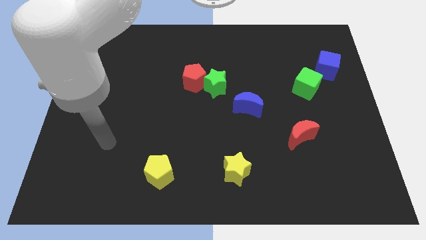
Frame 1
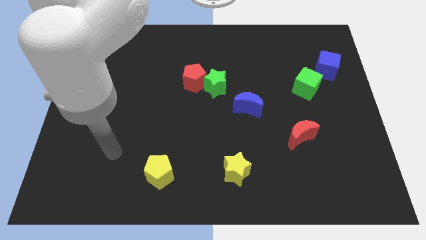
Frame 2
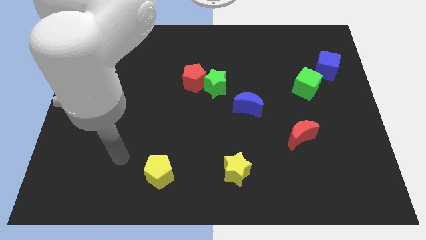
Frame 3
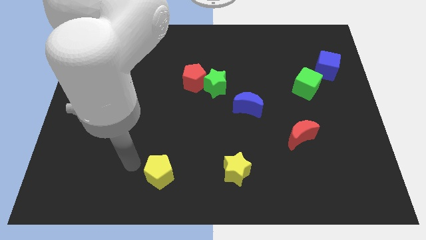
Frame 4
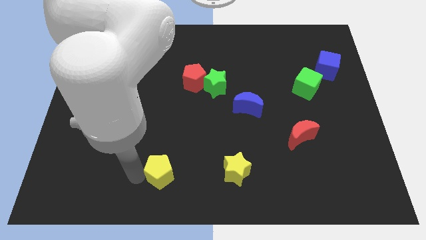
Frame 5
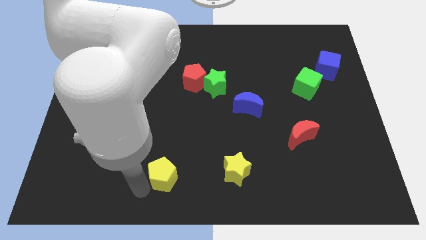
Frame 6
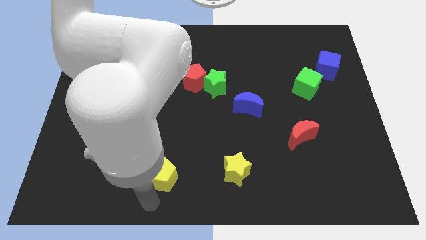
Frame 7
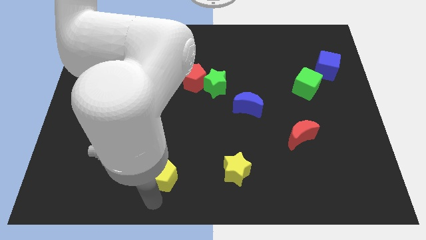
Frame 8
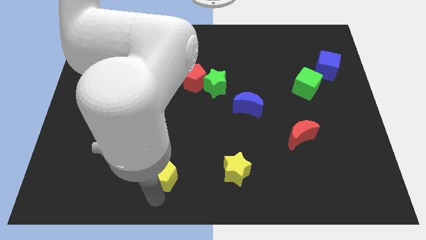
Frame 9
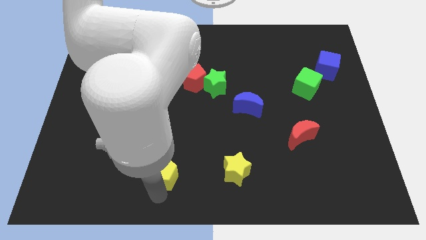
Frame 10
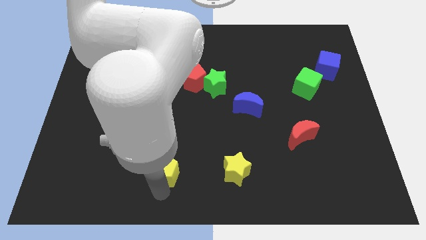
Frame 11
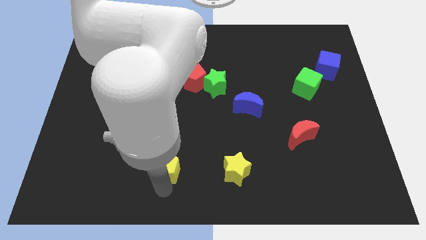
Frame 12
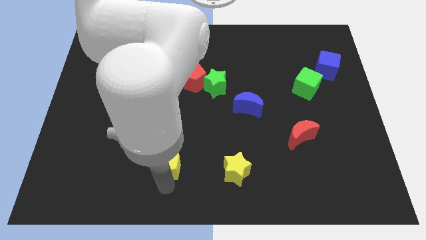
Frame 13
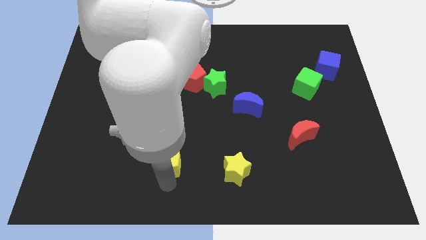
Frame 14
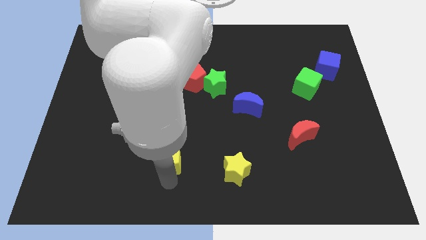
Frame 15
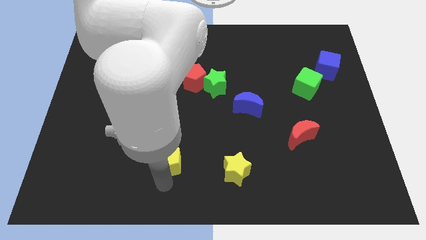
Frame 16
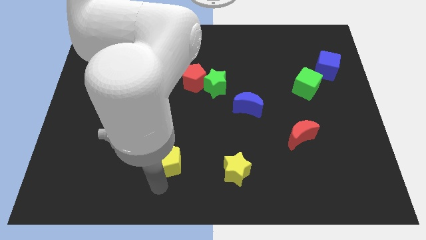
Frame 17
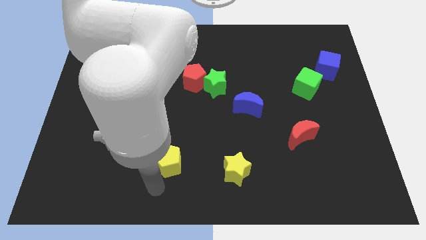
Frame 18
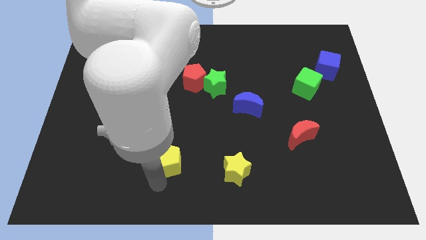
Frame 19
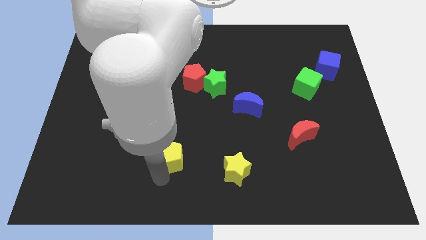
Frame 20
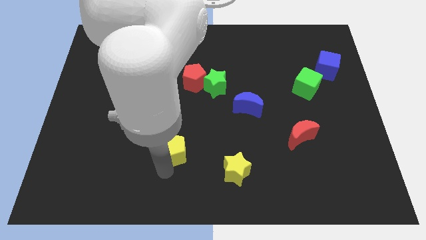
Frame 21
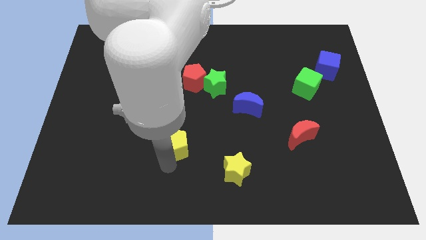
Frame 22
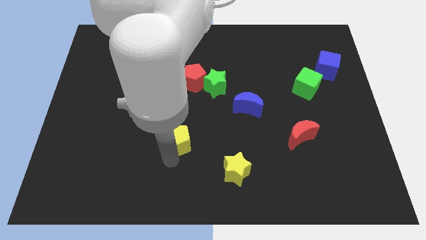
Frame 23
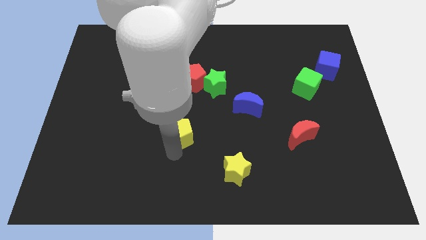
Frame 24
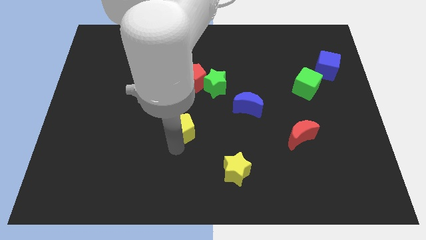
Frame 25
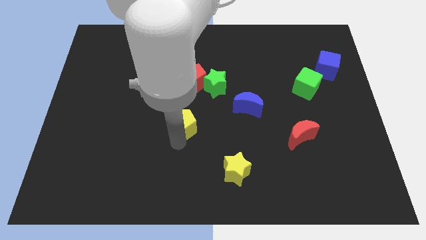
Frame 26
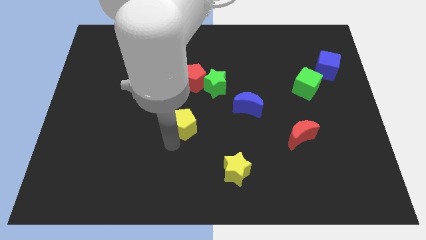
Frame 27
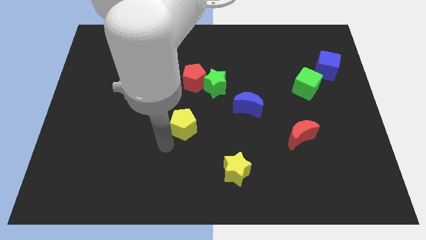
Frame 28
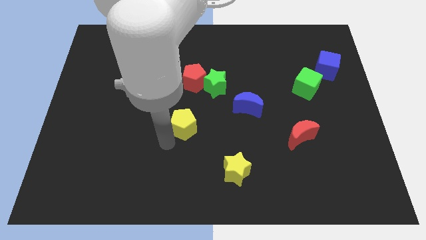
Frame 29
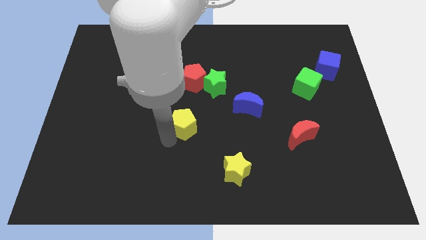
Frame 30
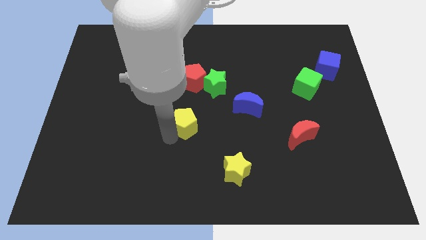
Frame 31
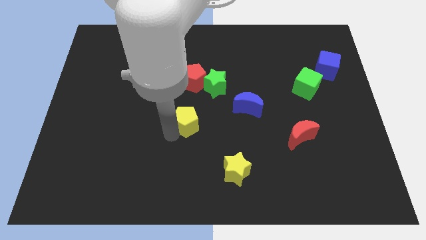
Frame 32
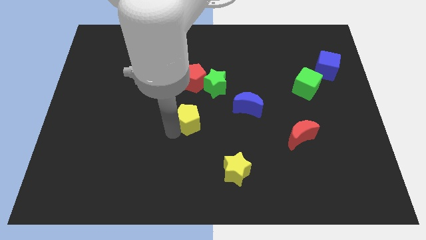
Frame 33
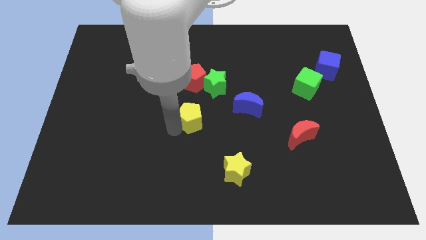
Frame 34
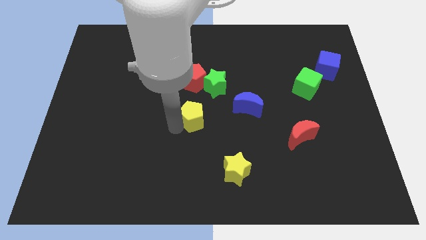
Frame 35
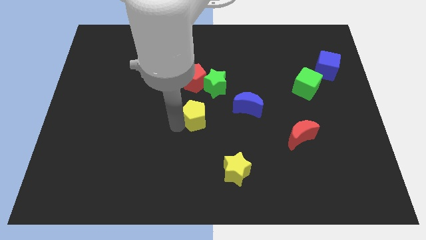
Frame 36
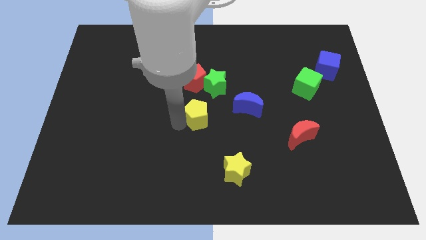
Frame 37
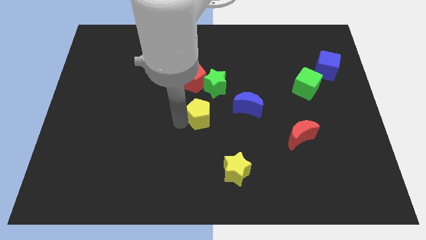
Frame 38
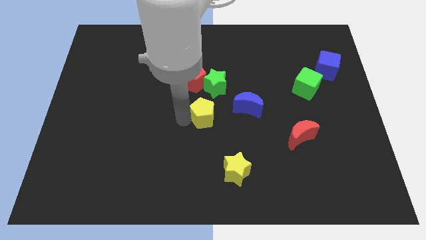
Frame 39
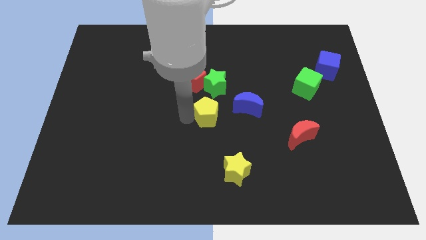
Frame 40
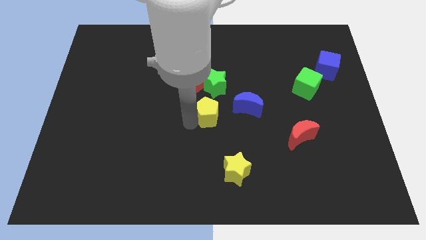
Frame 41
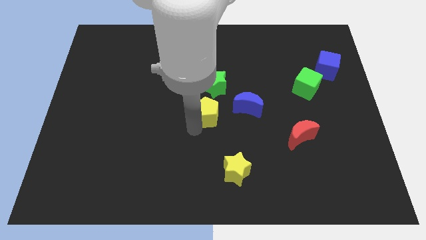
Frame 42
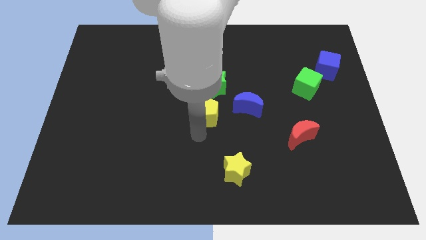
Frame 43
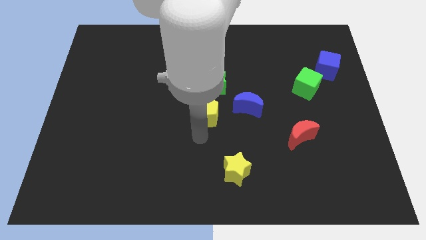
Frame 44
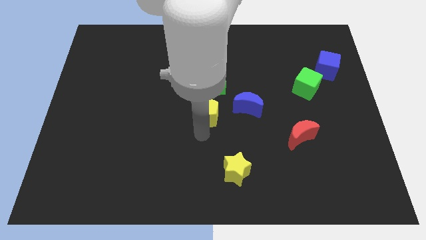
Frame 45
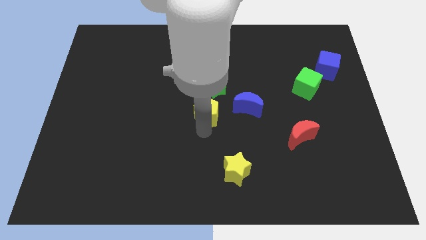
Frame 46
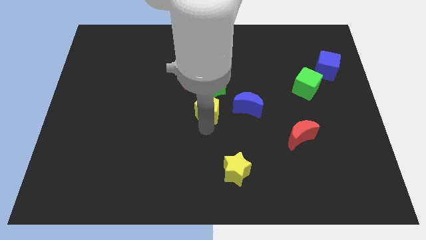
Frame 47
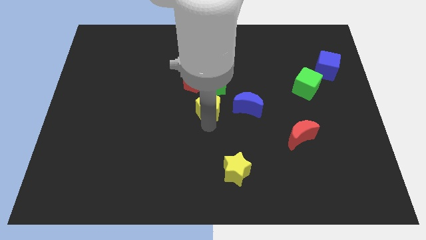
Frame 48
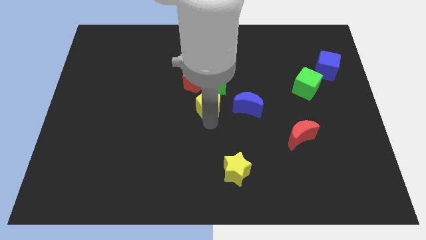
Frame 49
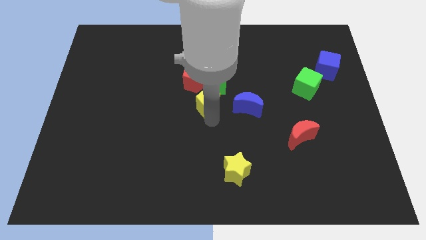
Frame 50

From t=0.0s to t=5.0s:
push the yellow pentagon to the green star

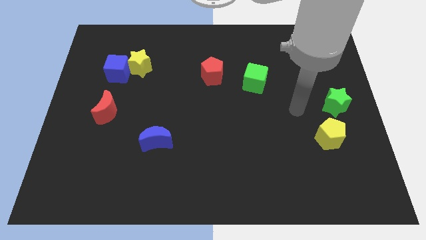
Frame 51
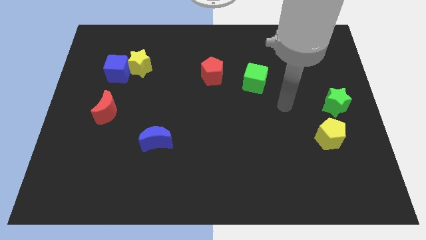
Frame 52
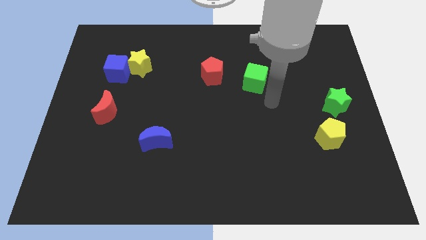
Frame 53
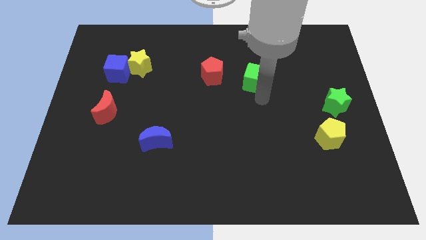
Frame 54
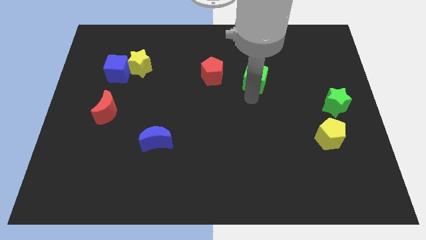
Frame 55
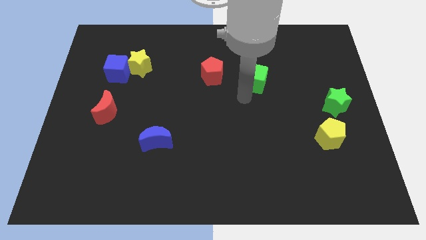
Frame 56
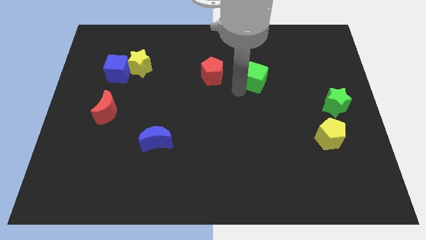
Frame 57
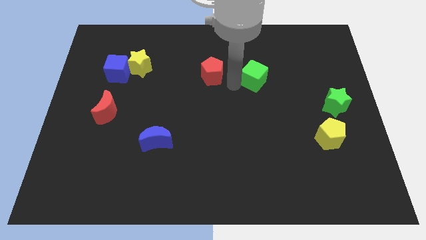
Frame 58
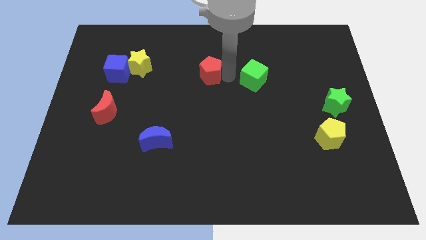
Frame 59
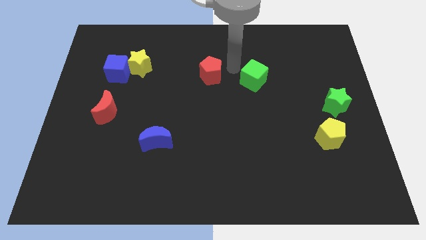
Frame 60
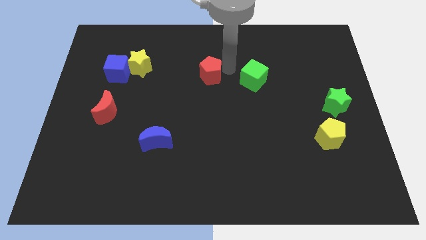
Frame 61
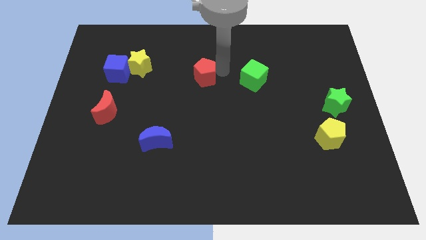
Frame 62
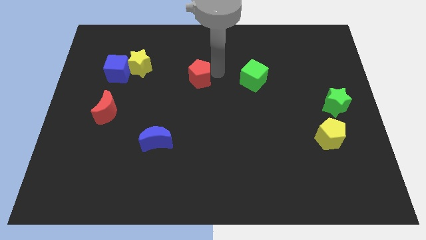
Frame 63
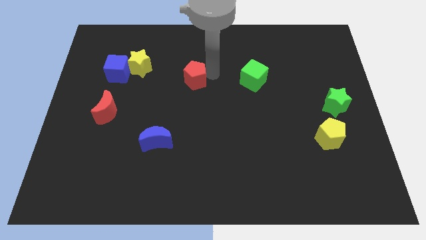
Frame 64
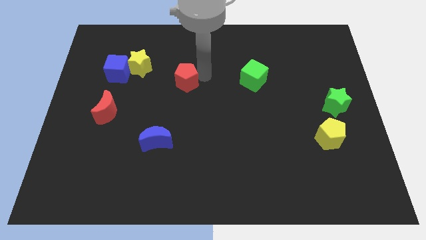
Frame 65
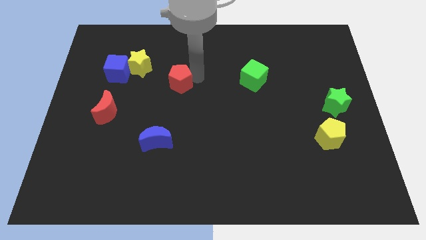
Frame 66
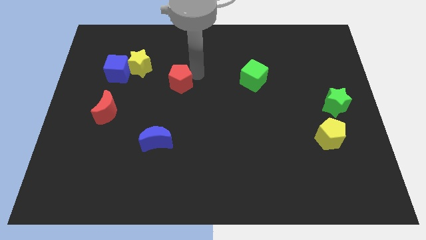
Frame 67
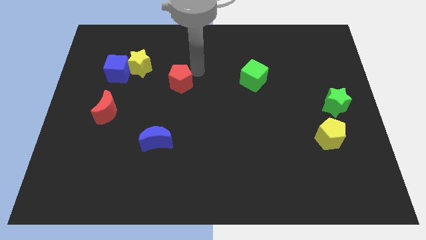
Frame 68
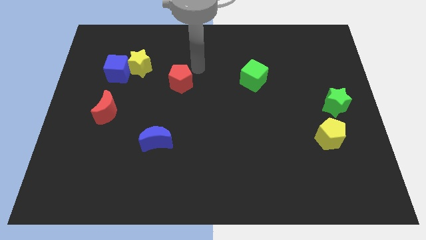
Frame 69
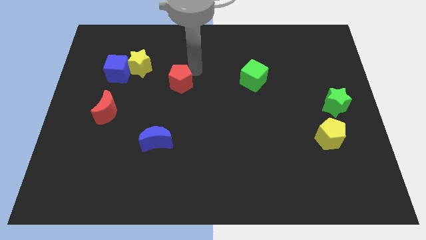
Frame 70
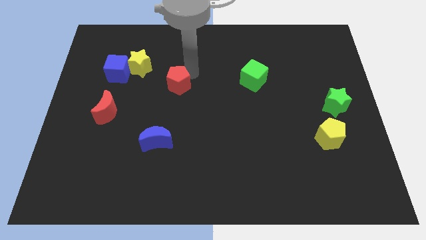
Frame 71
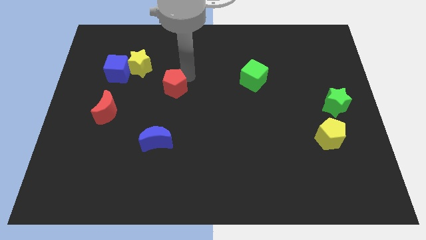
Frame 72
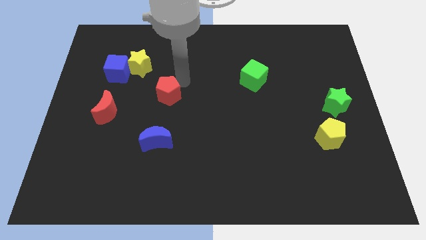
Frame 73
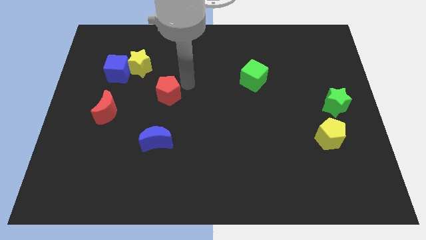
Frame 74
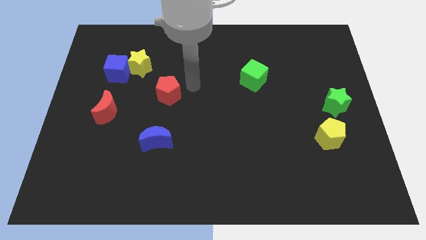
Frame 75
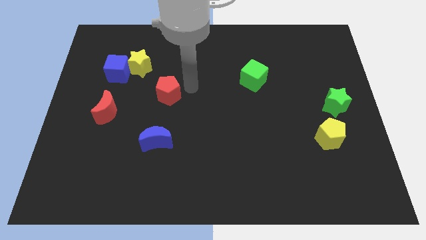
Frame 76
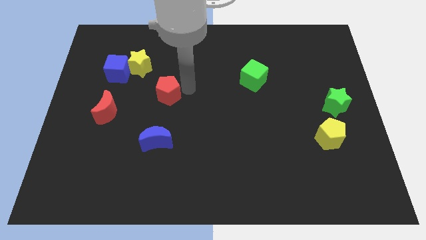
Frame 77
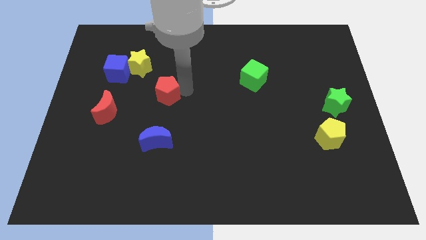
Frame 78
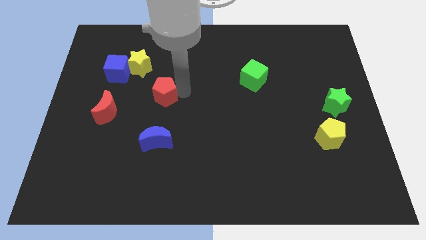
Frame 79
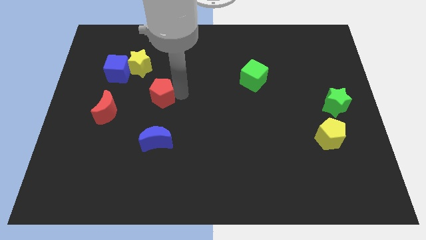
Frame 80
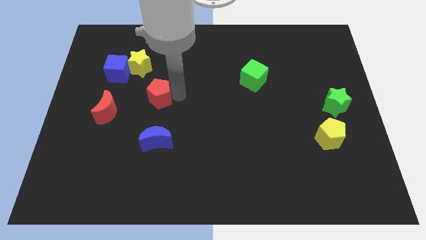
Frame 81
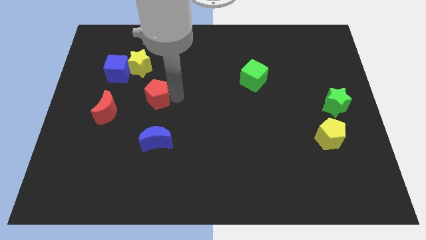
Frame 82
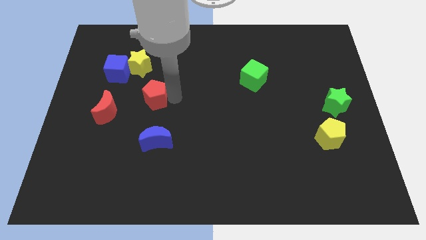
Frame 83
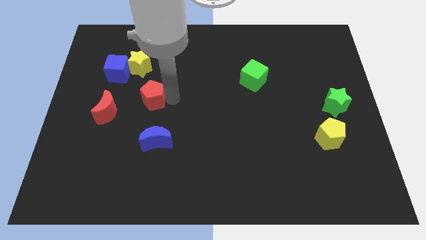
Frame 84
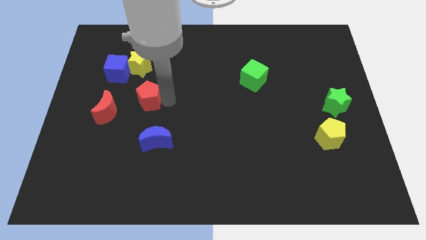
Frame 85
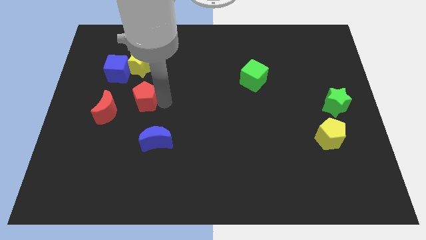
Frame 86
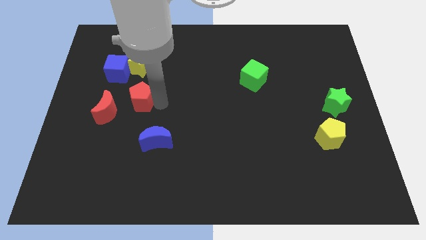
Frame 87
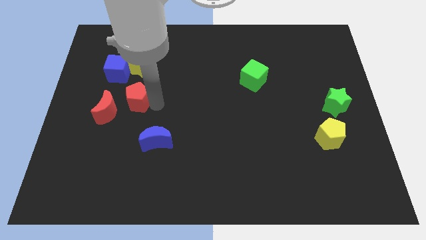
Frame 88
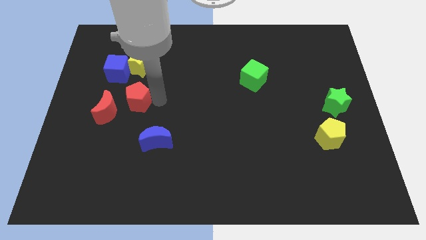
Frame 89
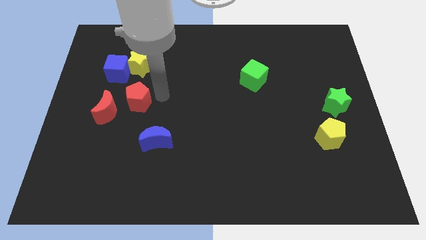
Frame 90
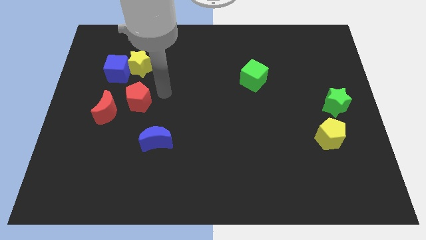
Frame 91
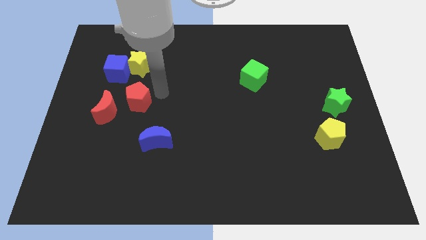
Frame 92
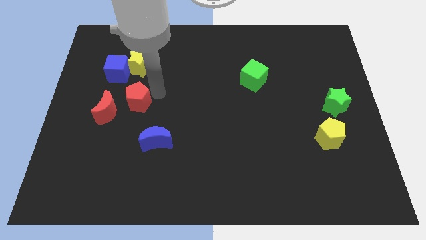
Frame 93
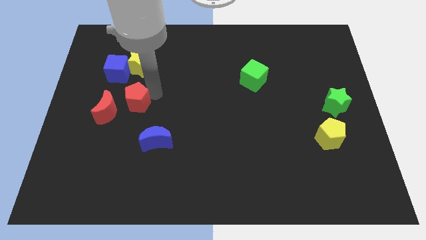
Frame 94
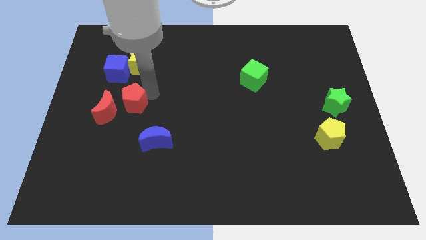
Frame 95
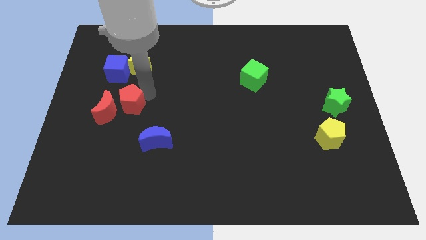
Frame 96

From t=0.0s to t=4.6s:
put the red pentagon towards the red moon
